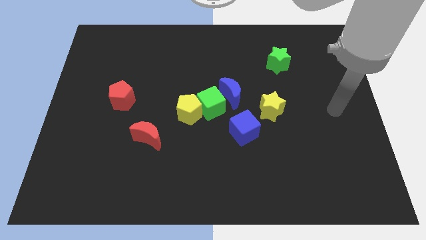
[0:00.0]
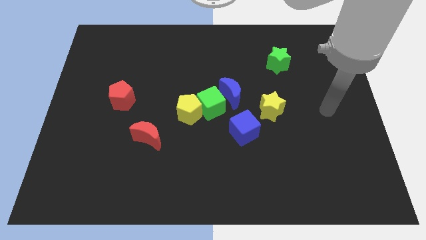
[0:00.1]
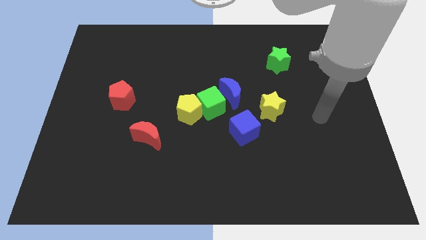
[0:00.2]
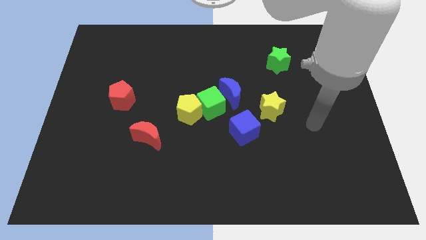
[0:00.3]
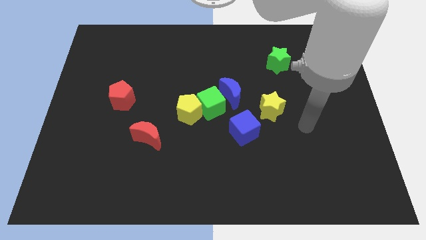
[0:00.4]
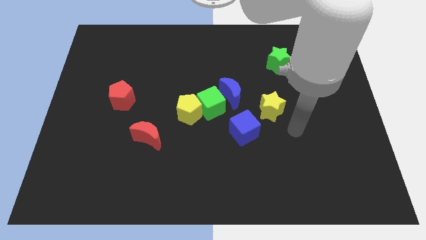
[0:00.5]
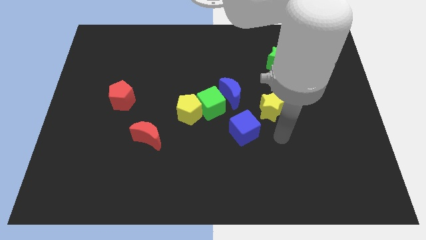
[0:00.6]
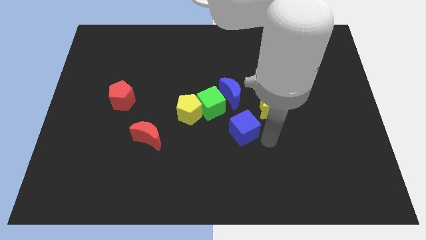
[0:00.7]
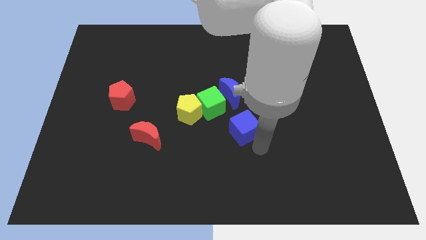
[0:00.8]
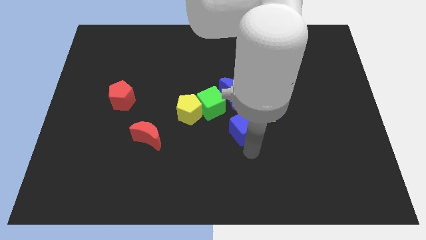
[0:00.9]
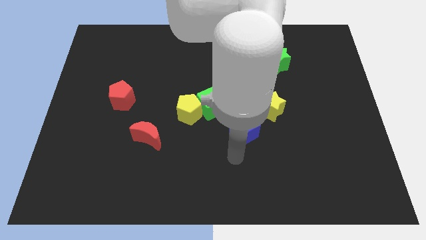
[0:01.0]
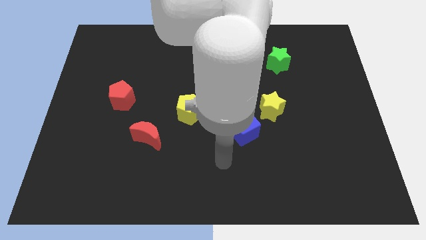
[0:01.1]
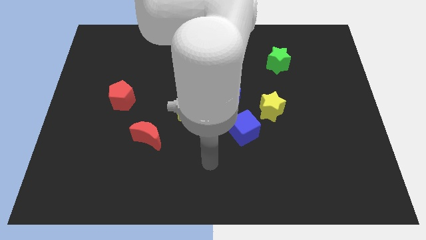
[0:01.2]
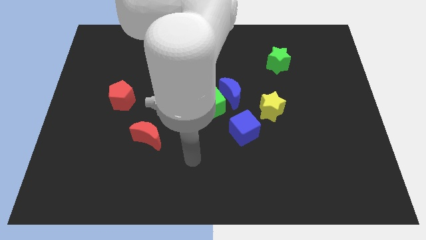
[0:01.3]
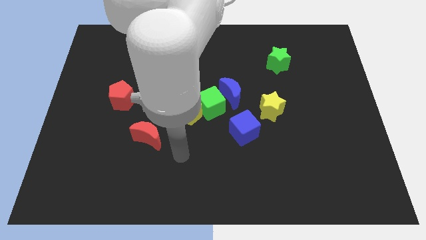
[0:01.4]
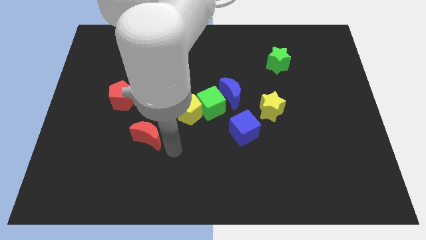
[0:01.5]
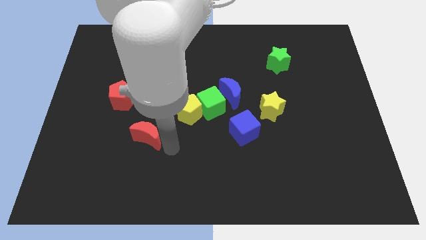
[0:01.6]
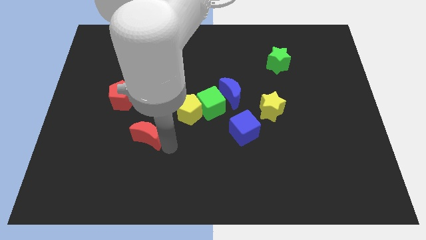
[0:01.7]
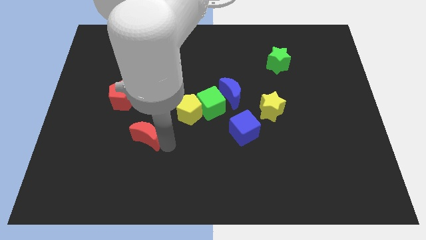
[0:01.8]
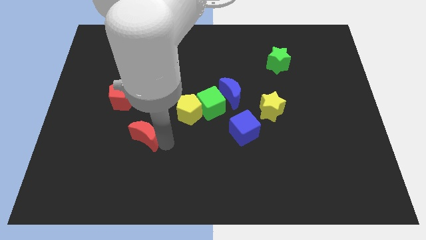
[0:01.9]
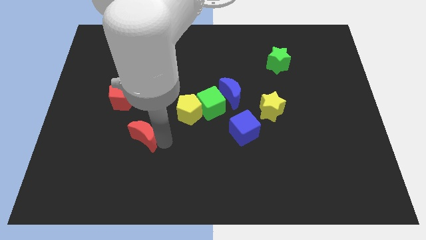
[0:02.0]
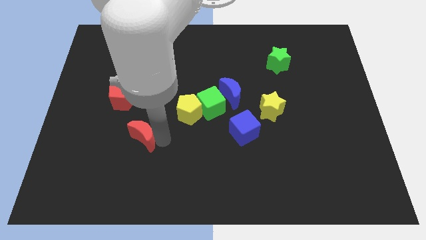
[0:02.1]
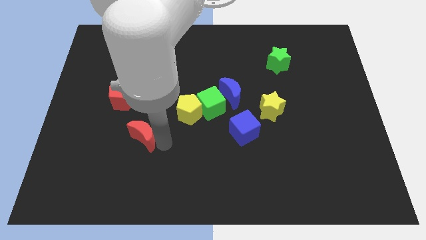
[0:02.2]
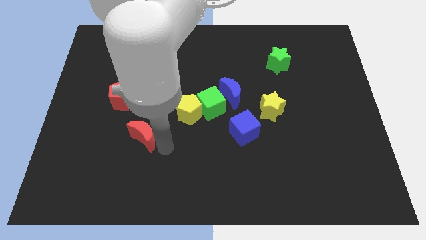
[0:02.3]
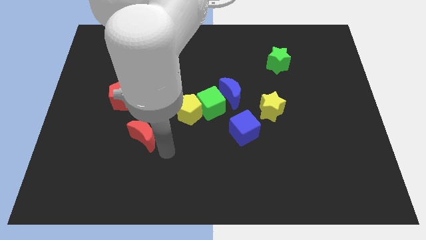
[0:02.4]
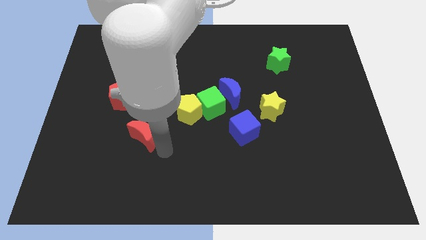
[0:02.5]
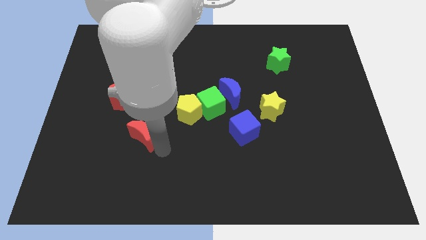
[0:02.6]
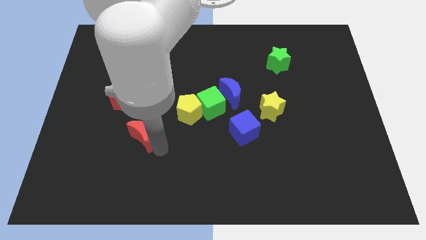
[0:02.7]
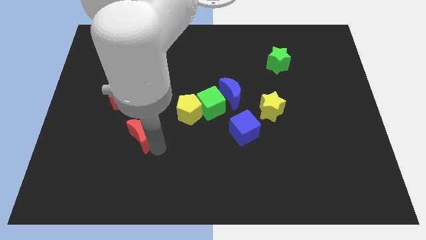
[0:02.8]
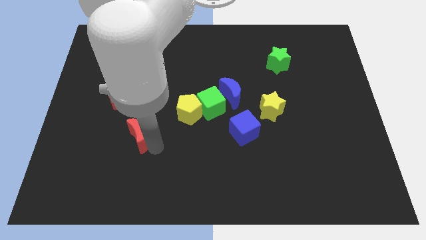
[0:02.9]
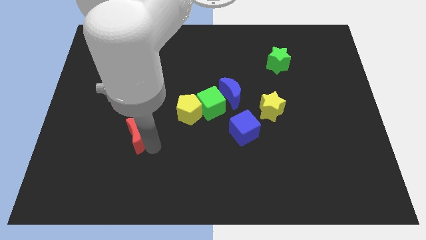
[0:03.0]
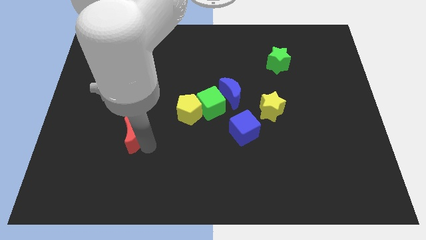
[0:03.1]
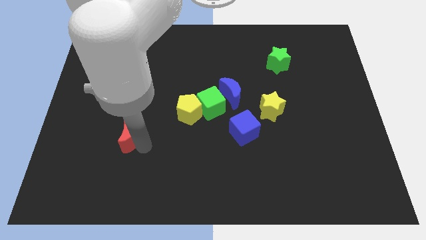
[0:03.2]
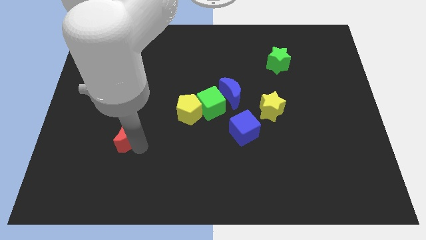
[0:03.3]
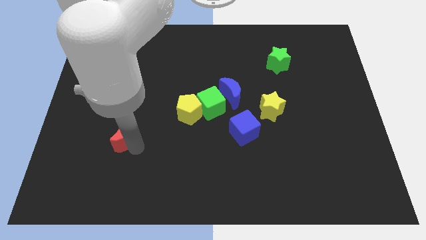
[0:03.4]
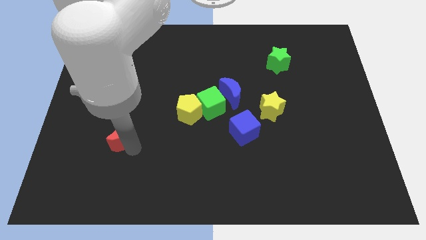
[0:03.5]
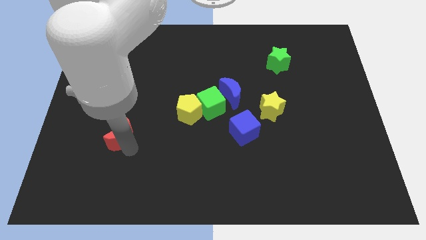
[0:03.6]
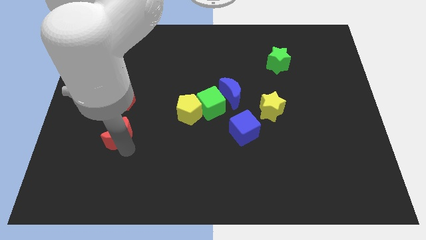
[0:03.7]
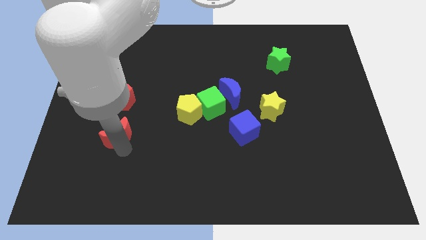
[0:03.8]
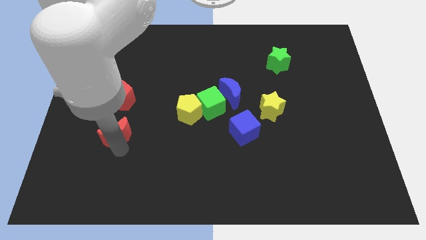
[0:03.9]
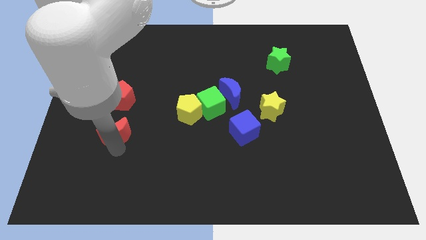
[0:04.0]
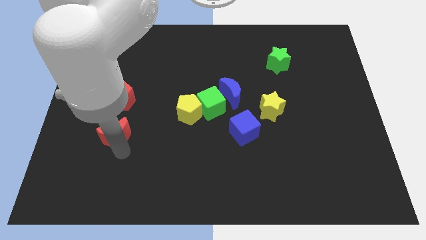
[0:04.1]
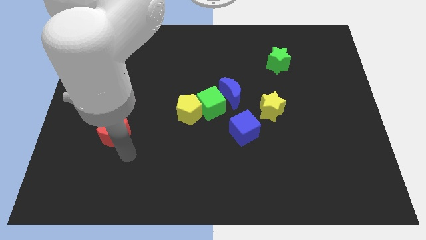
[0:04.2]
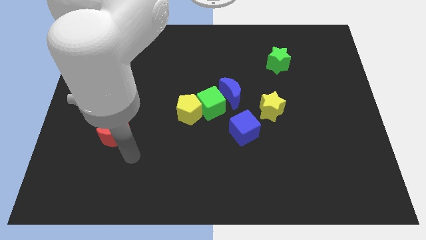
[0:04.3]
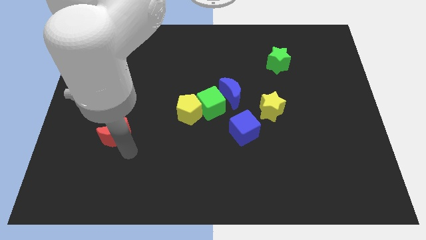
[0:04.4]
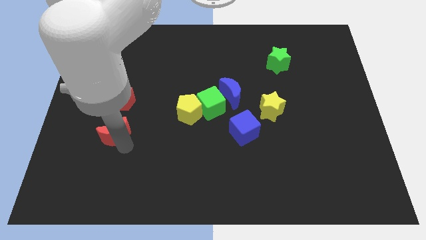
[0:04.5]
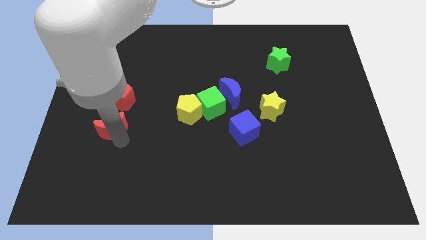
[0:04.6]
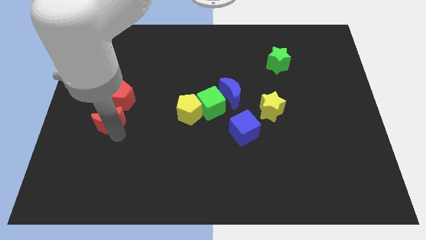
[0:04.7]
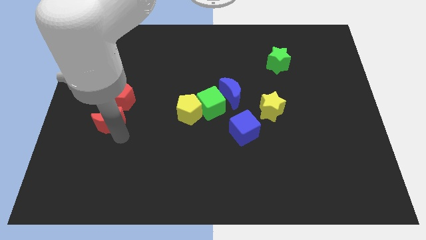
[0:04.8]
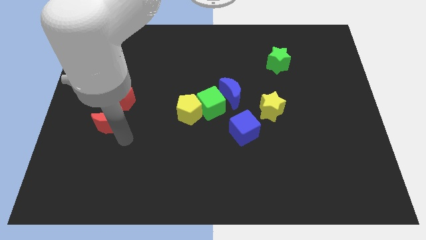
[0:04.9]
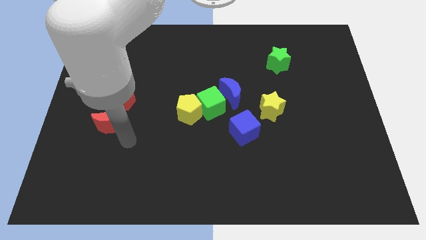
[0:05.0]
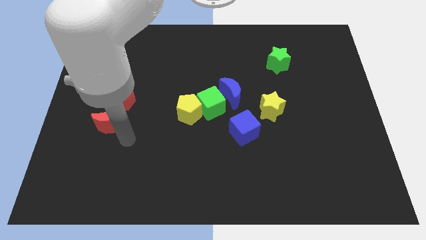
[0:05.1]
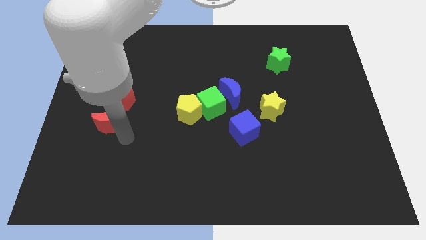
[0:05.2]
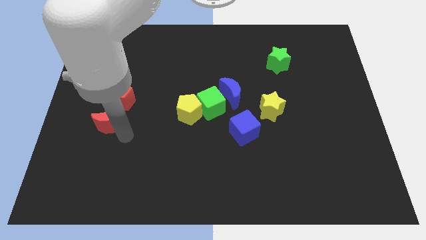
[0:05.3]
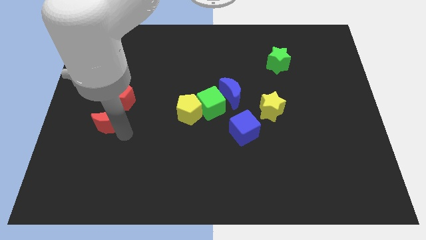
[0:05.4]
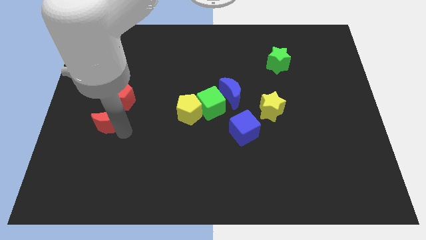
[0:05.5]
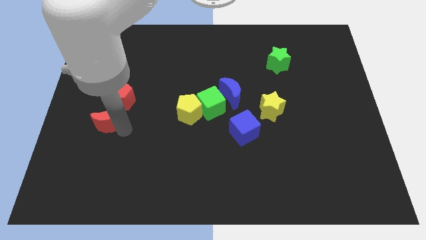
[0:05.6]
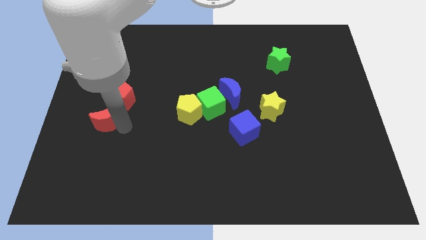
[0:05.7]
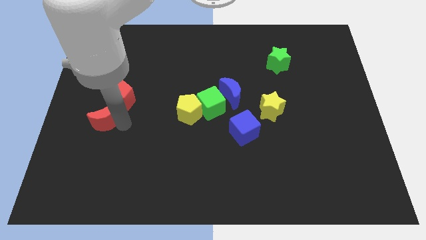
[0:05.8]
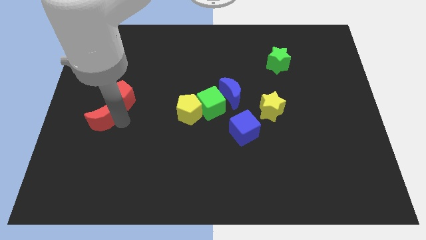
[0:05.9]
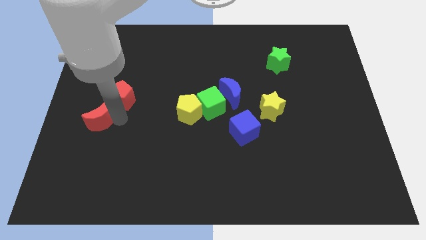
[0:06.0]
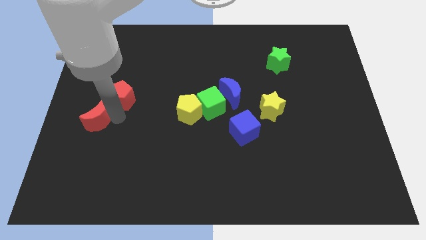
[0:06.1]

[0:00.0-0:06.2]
push the red moon to the center left

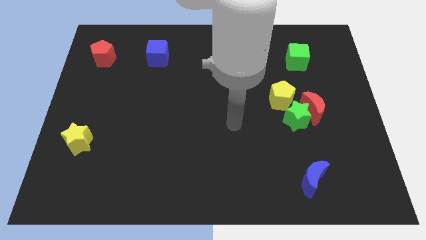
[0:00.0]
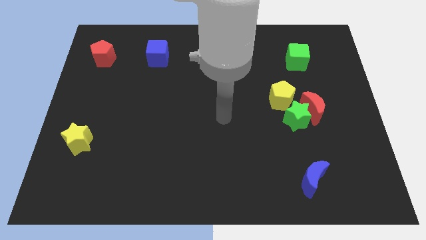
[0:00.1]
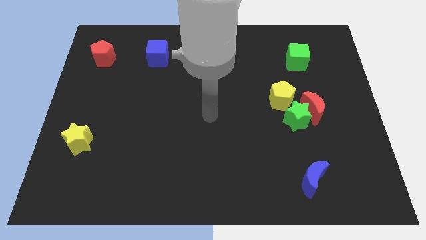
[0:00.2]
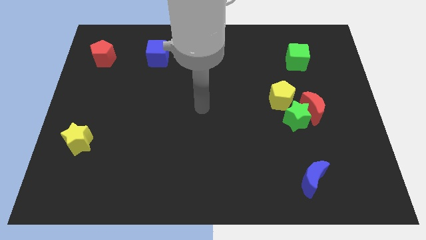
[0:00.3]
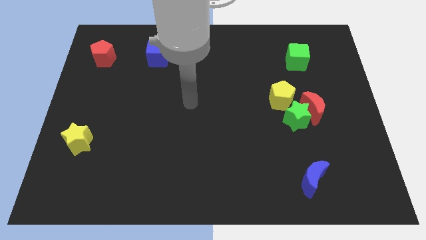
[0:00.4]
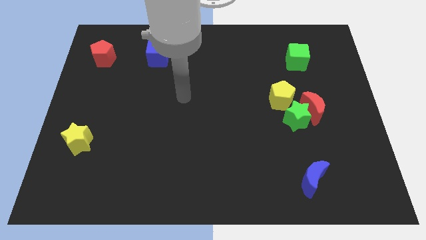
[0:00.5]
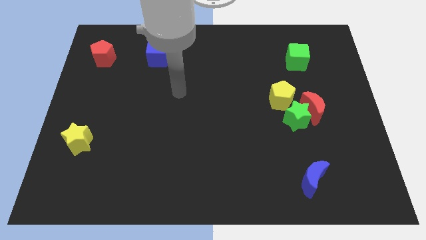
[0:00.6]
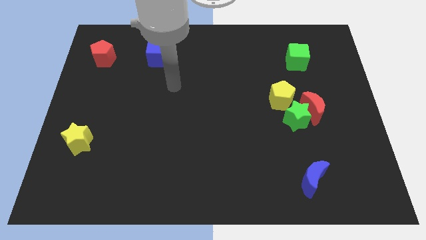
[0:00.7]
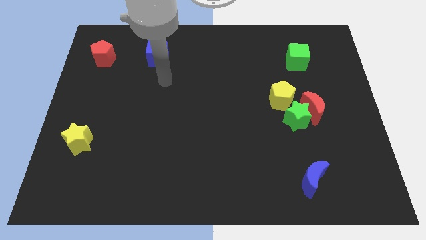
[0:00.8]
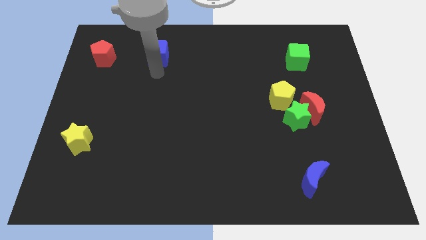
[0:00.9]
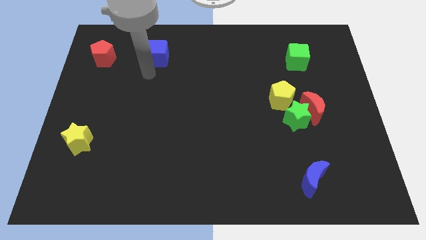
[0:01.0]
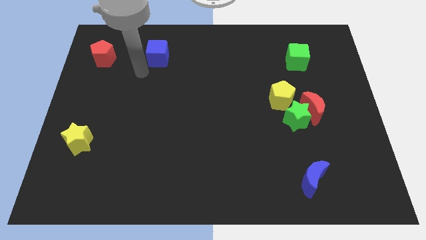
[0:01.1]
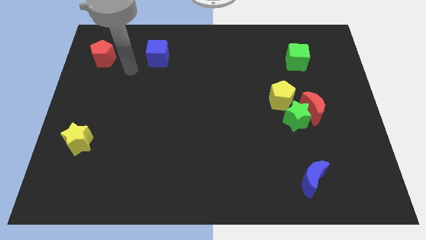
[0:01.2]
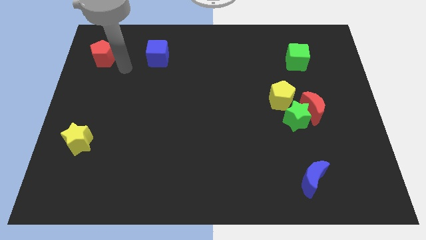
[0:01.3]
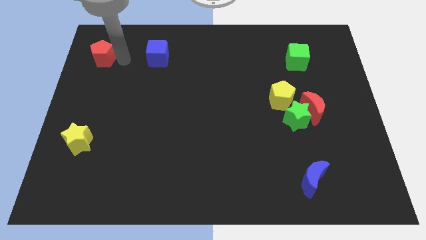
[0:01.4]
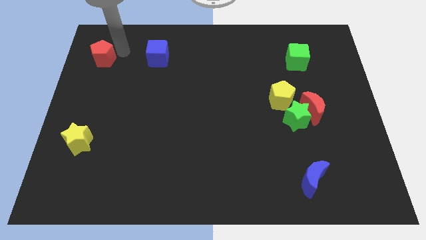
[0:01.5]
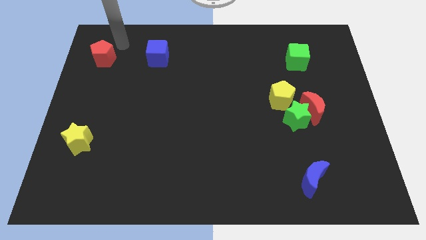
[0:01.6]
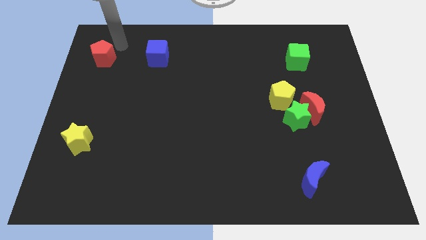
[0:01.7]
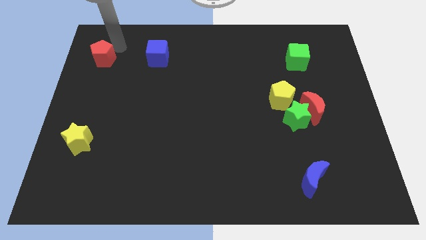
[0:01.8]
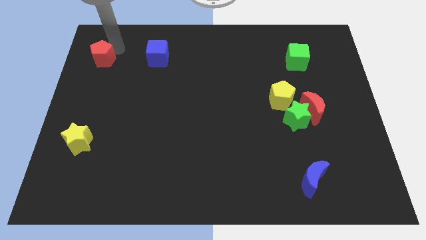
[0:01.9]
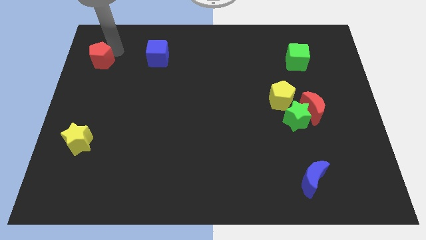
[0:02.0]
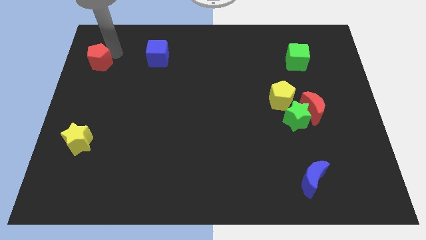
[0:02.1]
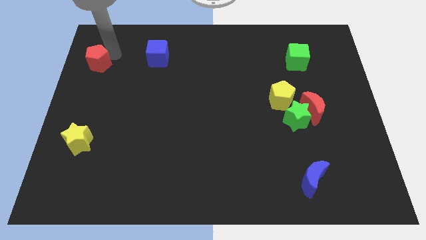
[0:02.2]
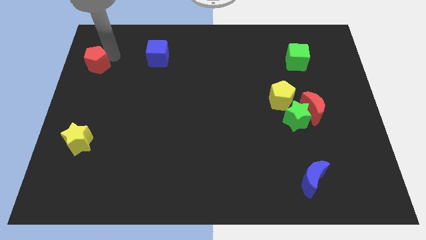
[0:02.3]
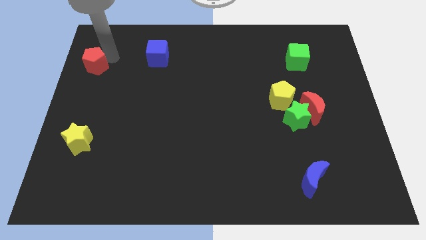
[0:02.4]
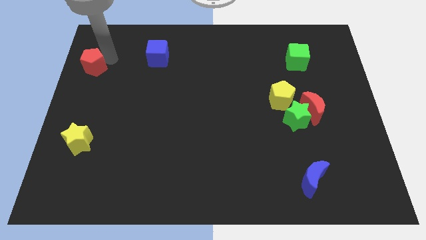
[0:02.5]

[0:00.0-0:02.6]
push the red pentagon to the left side of the board
